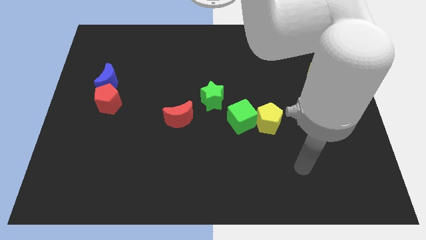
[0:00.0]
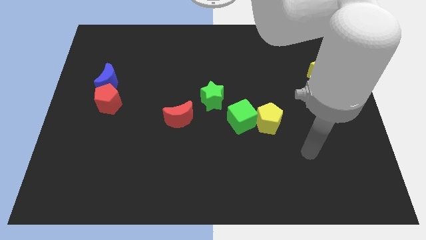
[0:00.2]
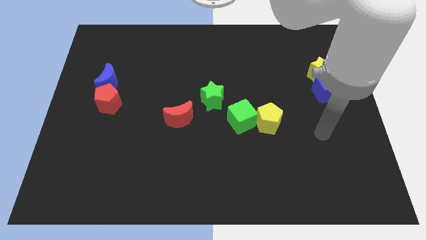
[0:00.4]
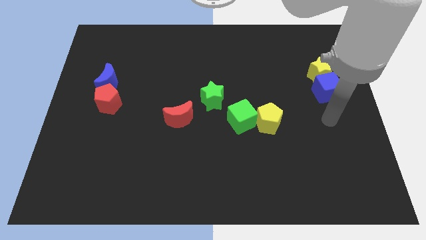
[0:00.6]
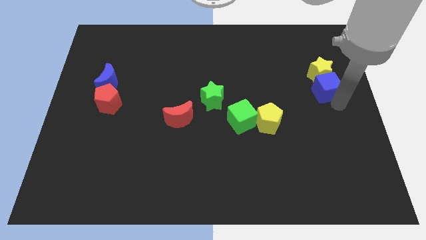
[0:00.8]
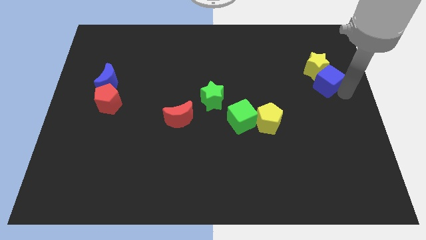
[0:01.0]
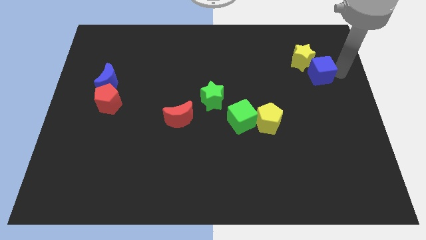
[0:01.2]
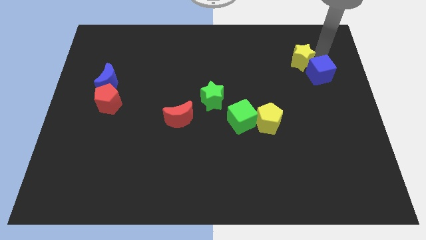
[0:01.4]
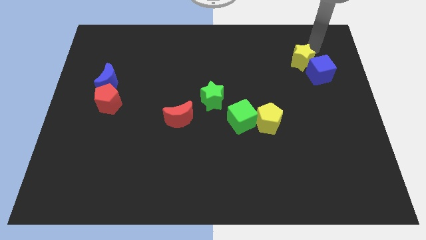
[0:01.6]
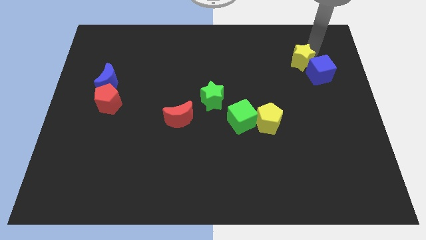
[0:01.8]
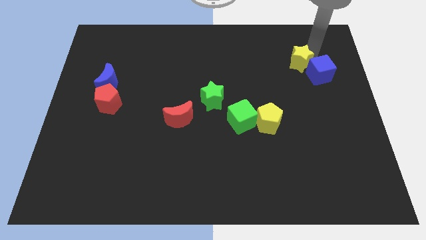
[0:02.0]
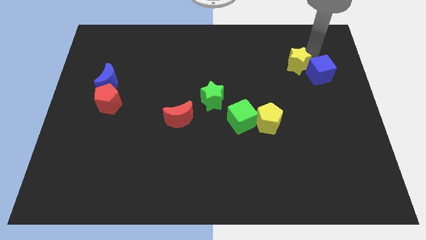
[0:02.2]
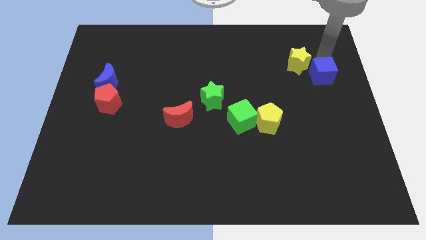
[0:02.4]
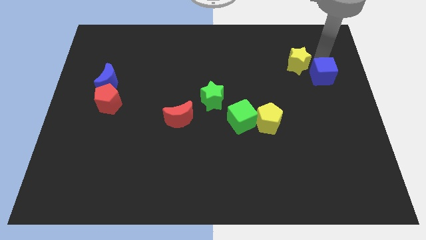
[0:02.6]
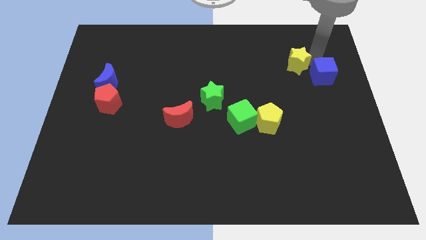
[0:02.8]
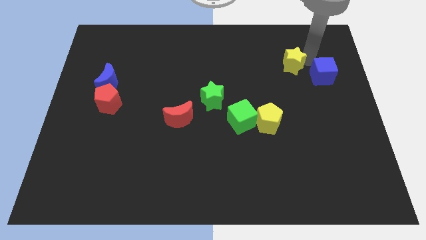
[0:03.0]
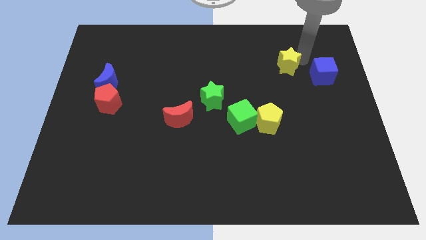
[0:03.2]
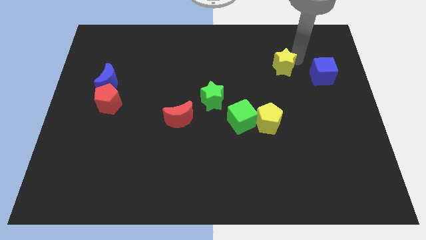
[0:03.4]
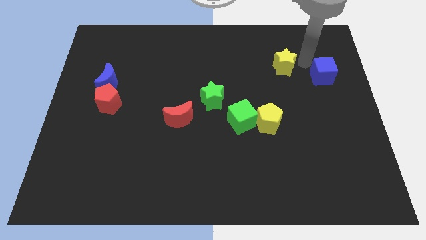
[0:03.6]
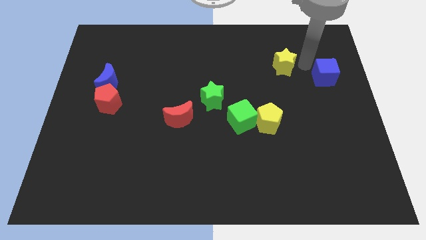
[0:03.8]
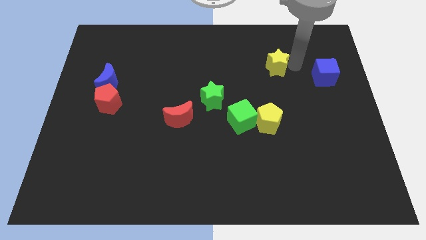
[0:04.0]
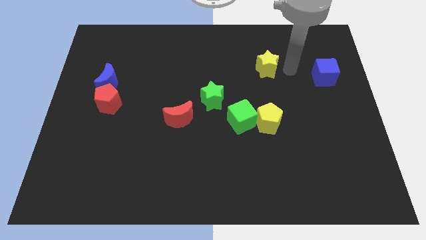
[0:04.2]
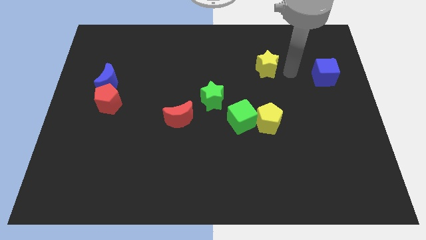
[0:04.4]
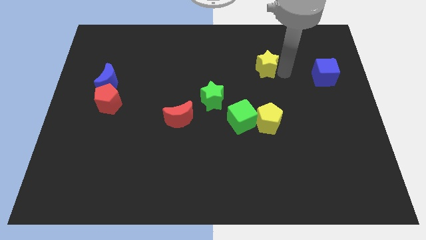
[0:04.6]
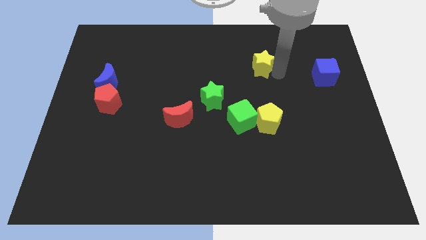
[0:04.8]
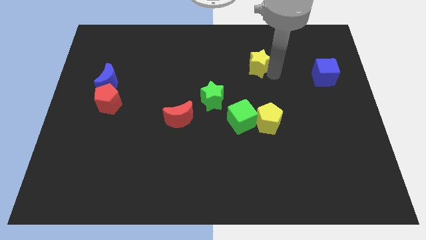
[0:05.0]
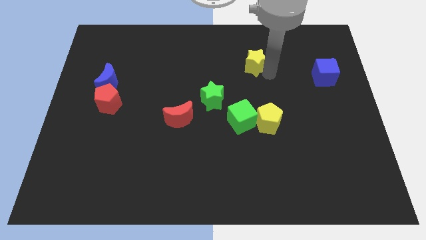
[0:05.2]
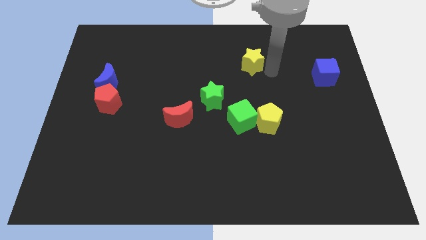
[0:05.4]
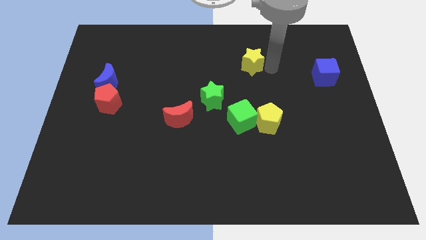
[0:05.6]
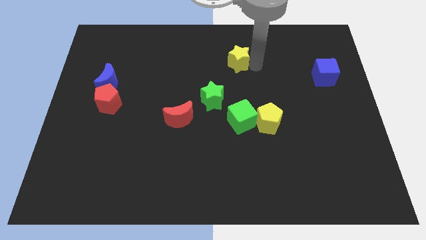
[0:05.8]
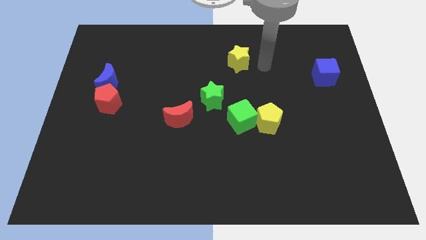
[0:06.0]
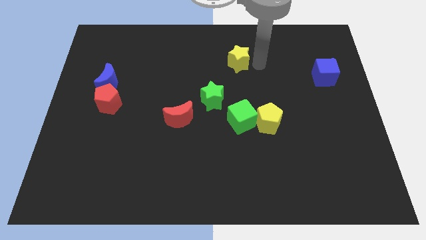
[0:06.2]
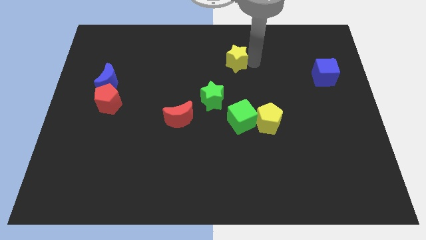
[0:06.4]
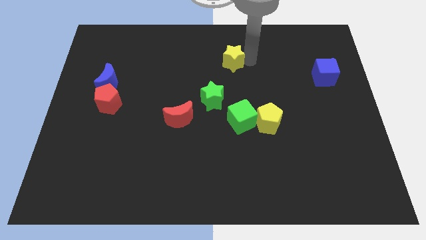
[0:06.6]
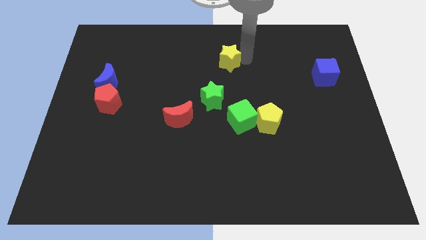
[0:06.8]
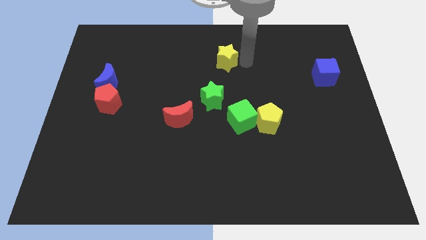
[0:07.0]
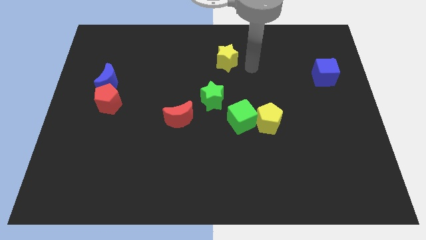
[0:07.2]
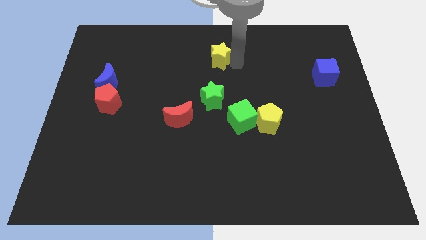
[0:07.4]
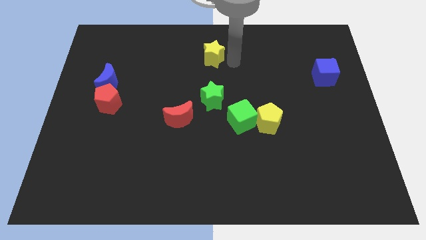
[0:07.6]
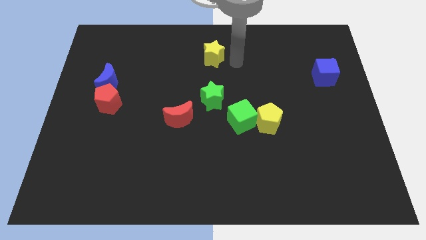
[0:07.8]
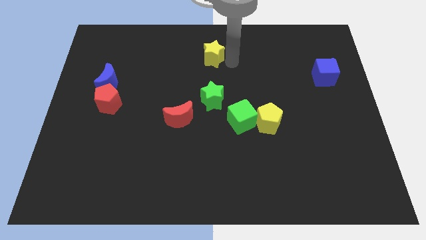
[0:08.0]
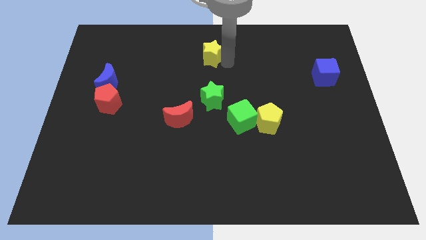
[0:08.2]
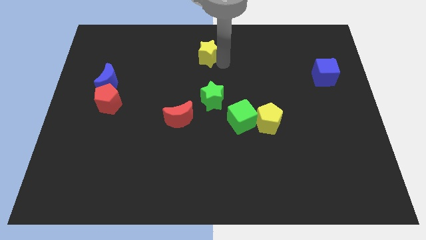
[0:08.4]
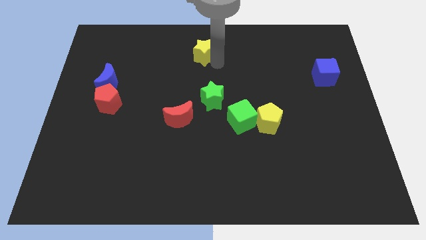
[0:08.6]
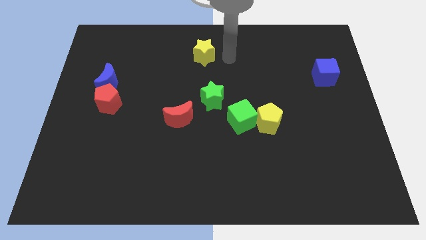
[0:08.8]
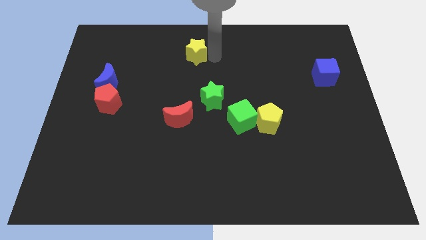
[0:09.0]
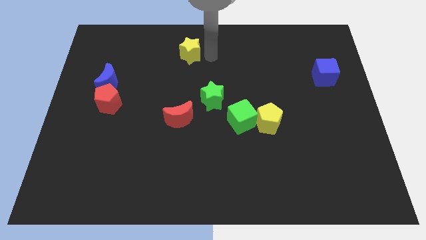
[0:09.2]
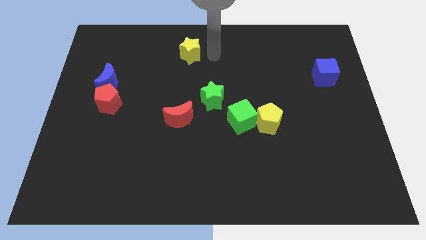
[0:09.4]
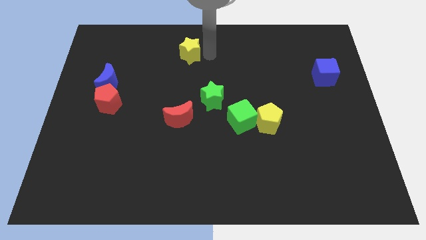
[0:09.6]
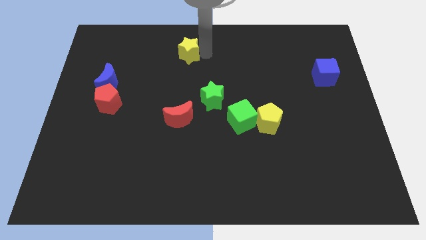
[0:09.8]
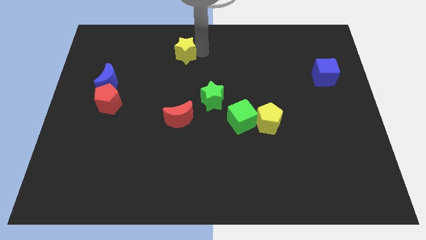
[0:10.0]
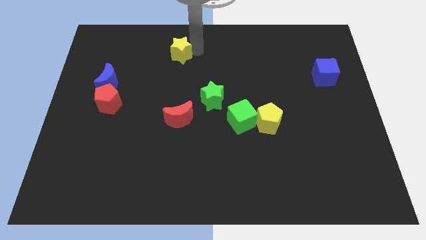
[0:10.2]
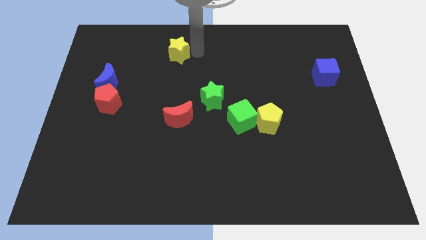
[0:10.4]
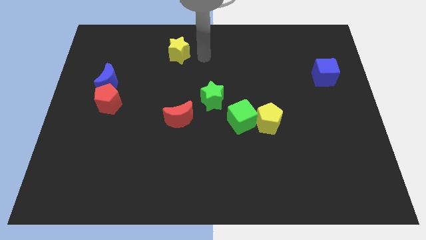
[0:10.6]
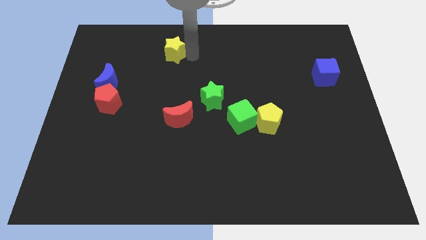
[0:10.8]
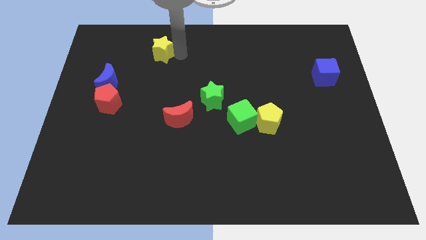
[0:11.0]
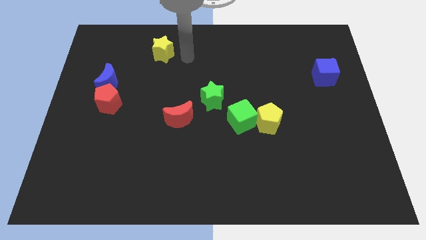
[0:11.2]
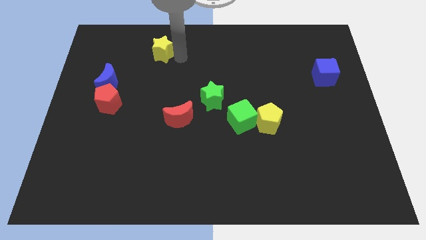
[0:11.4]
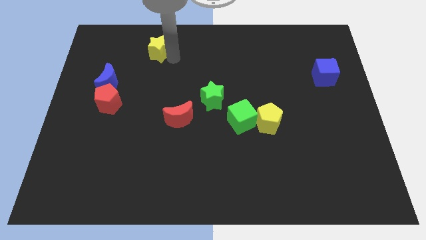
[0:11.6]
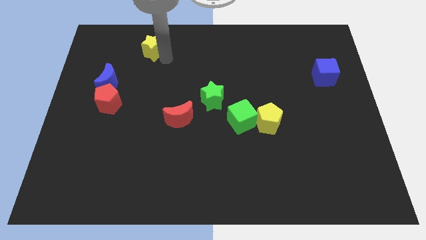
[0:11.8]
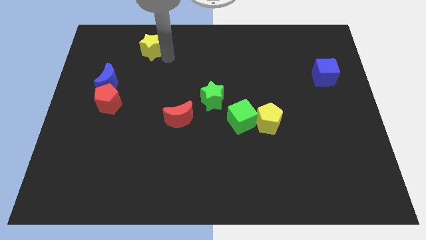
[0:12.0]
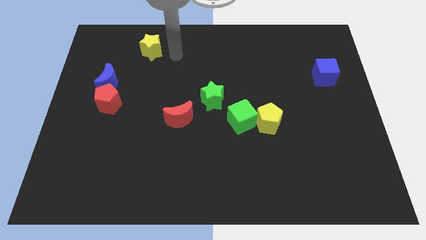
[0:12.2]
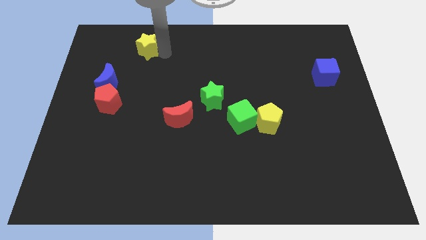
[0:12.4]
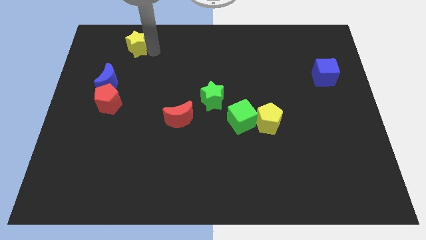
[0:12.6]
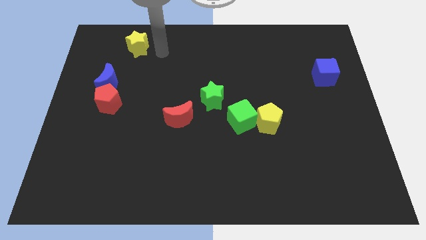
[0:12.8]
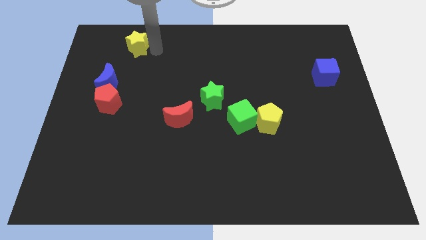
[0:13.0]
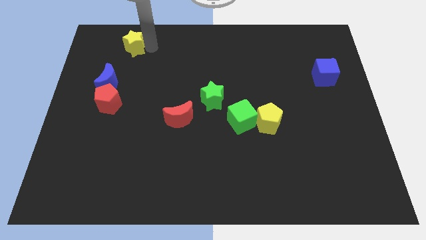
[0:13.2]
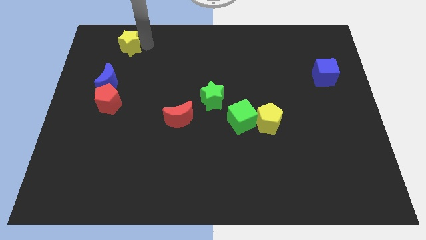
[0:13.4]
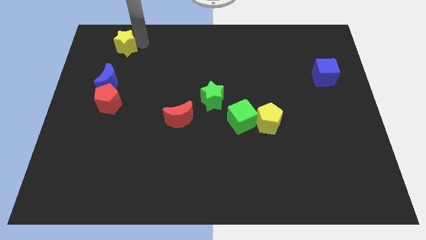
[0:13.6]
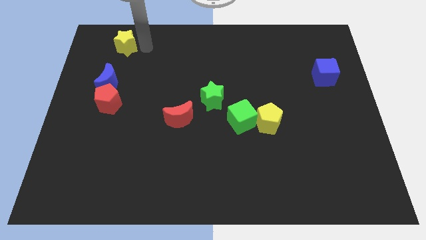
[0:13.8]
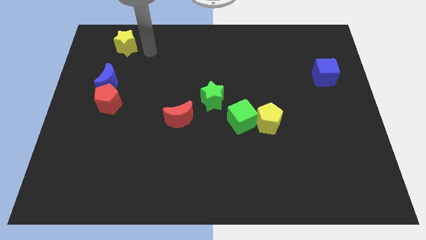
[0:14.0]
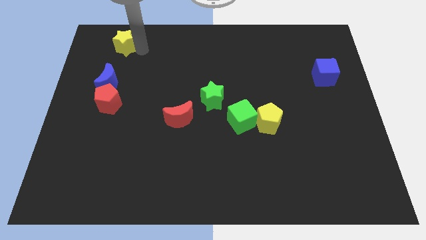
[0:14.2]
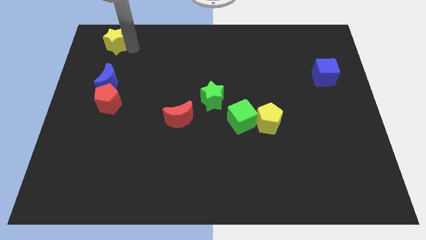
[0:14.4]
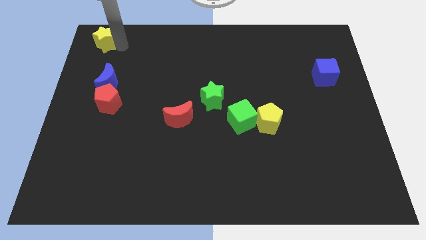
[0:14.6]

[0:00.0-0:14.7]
put the yellow star to the upper left corner
